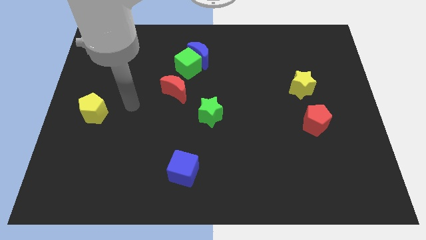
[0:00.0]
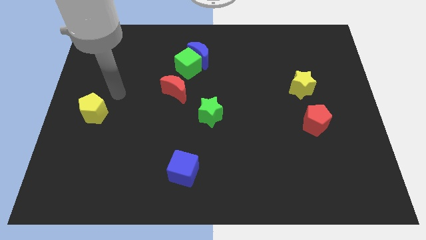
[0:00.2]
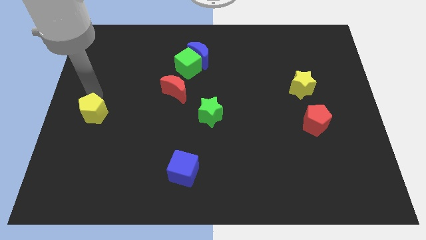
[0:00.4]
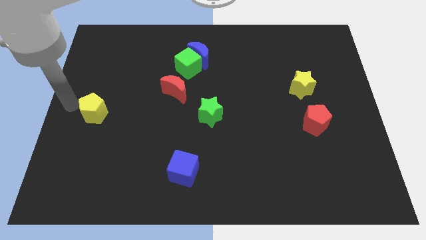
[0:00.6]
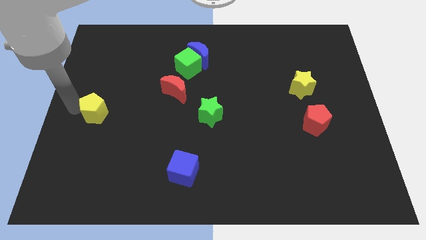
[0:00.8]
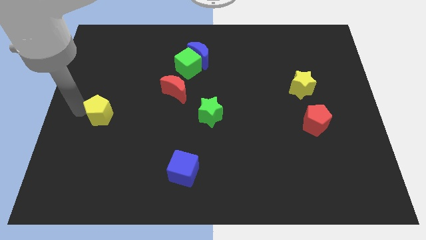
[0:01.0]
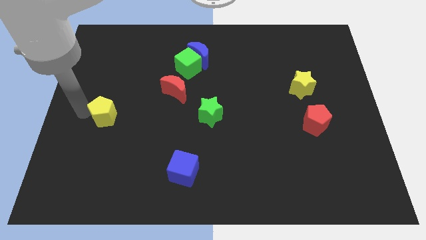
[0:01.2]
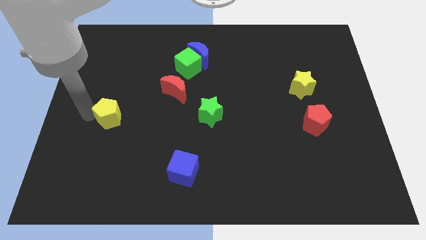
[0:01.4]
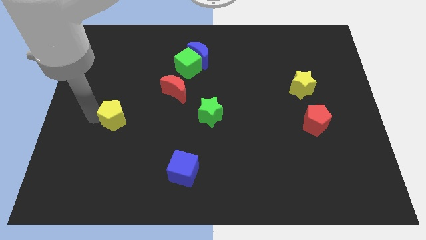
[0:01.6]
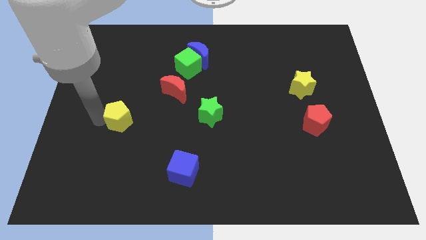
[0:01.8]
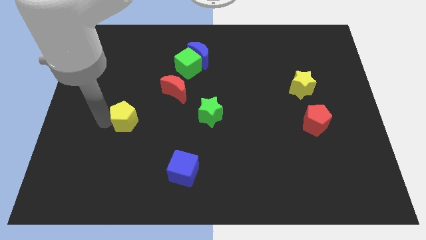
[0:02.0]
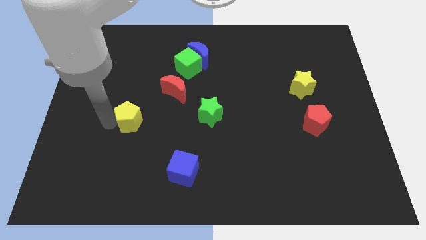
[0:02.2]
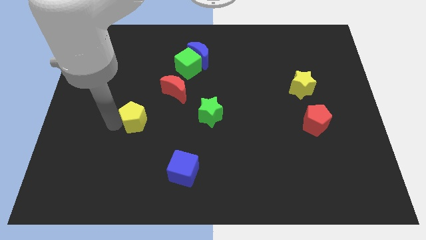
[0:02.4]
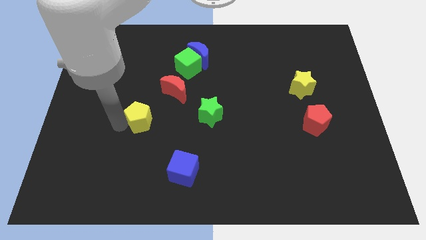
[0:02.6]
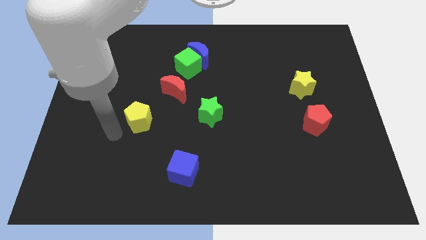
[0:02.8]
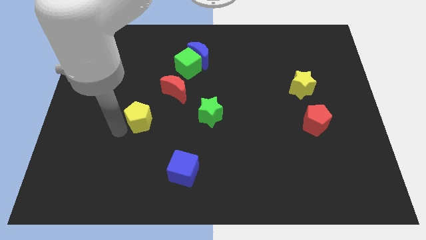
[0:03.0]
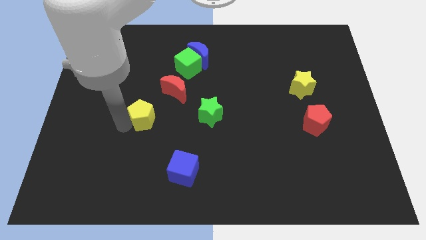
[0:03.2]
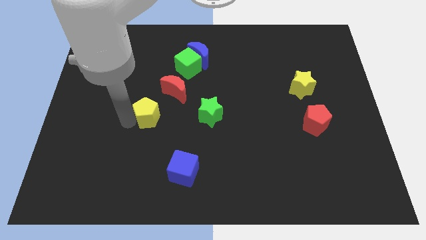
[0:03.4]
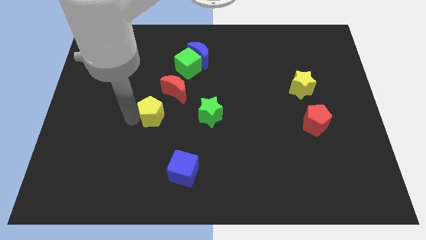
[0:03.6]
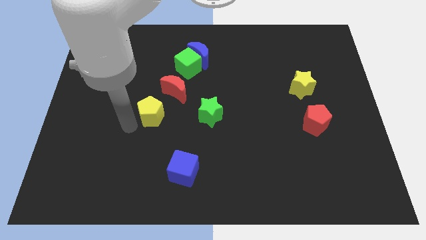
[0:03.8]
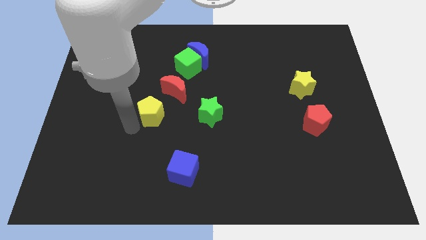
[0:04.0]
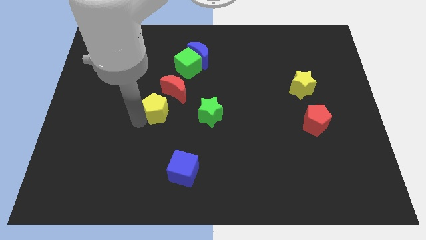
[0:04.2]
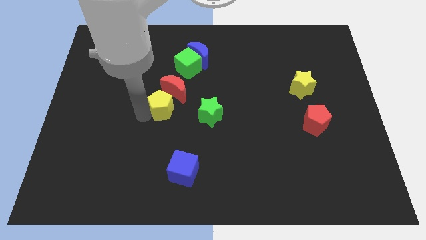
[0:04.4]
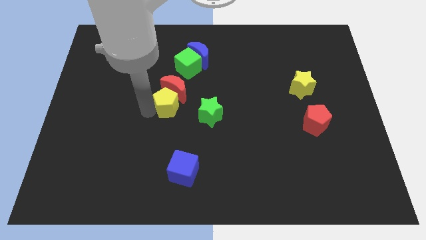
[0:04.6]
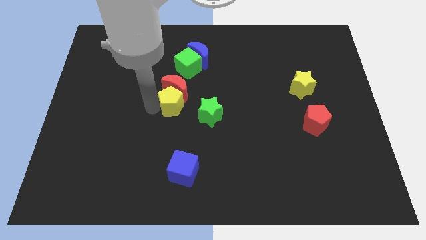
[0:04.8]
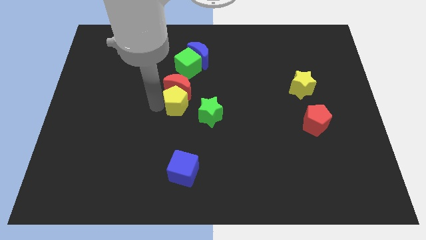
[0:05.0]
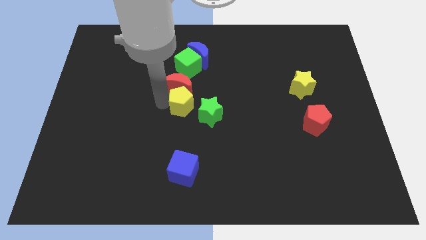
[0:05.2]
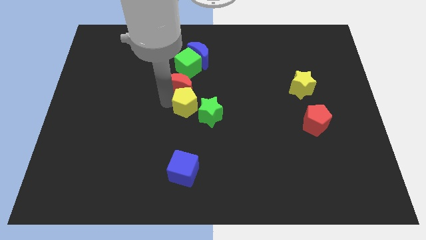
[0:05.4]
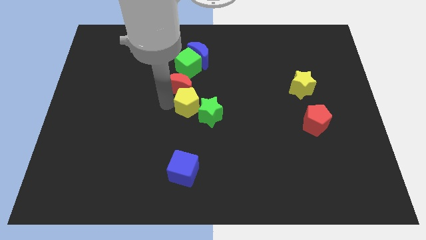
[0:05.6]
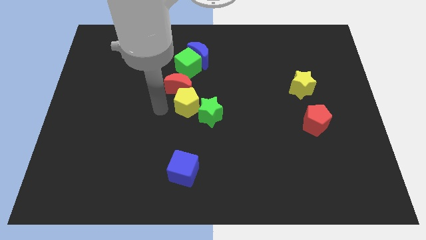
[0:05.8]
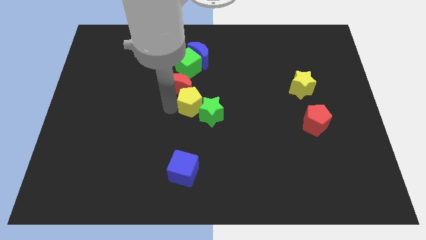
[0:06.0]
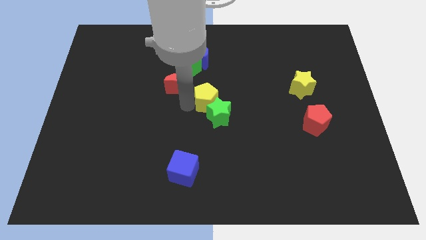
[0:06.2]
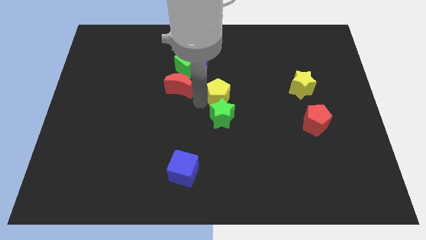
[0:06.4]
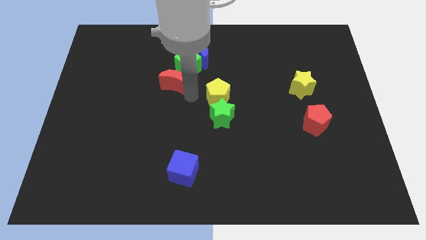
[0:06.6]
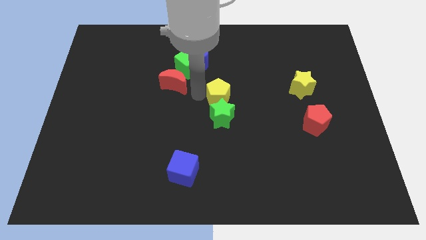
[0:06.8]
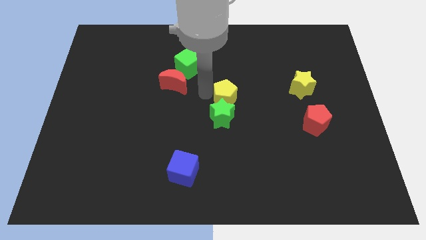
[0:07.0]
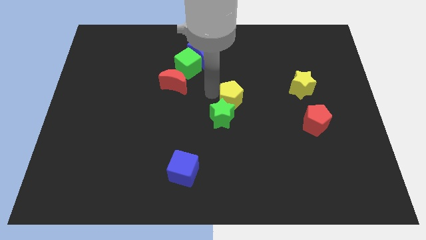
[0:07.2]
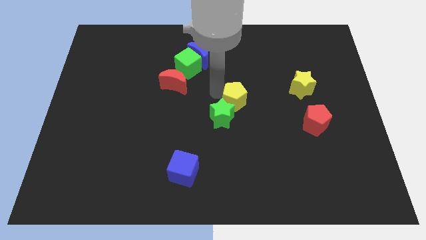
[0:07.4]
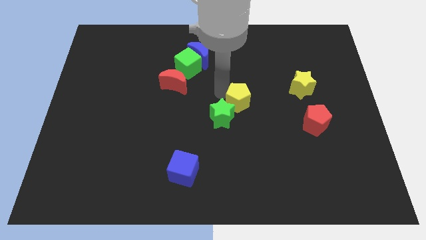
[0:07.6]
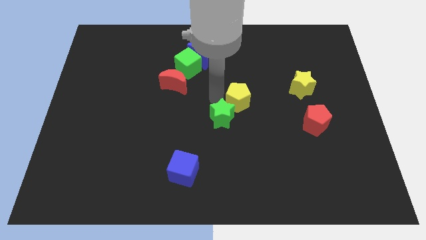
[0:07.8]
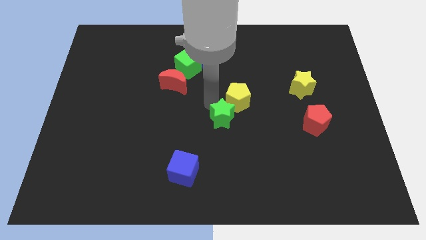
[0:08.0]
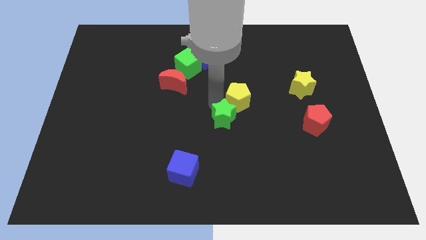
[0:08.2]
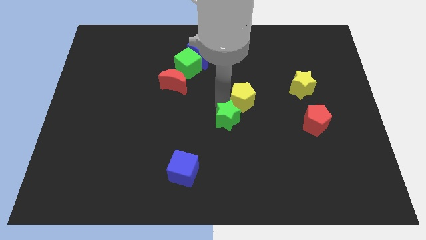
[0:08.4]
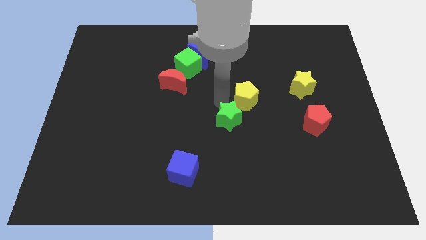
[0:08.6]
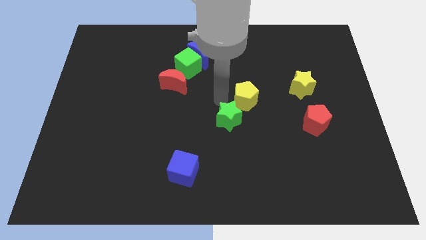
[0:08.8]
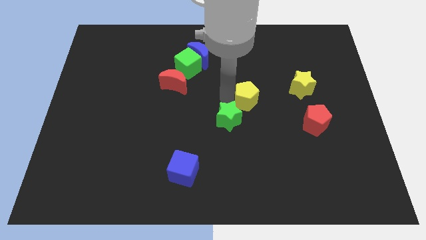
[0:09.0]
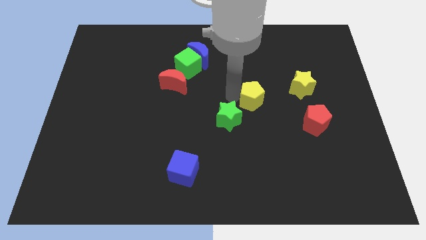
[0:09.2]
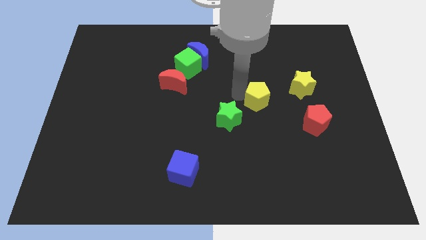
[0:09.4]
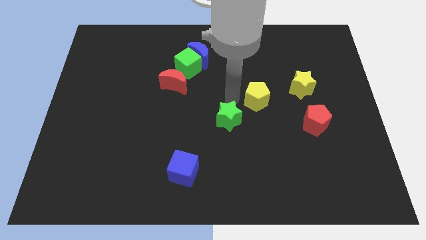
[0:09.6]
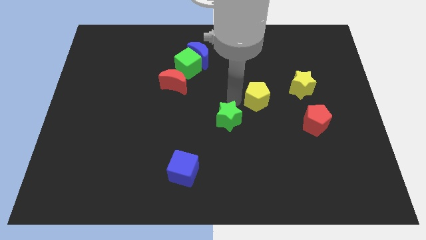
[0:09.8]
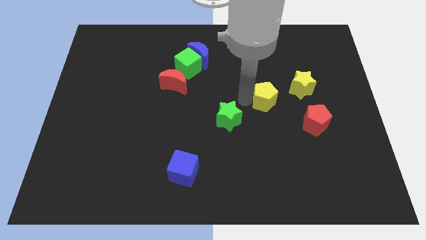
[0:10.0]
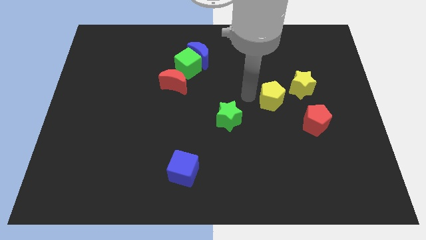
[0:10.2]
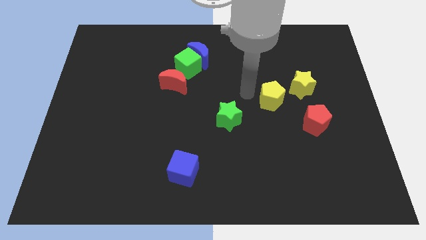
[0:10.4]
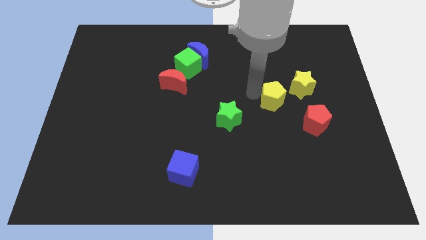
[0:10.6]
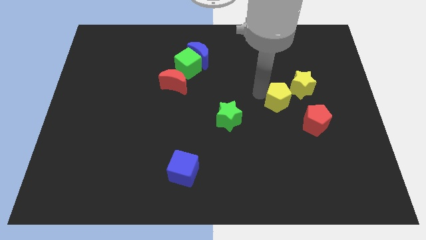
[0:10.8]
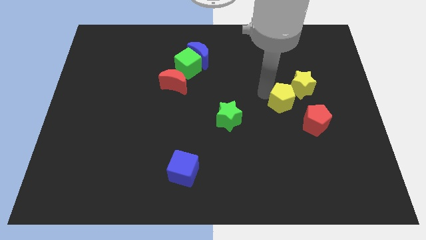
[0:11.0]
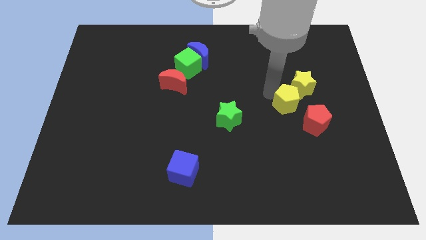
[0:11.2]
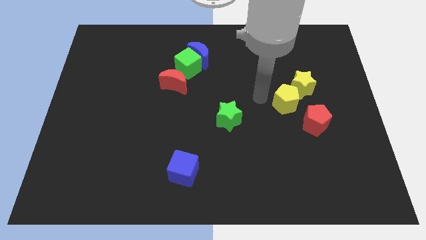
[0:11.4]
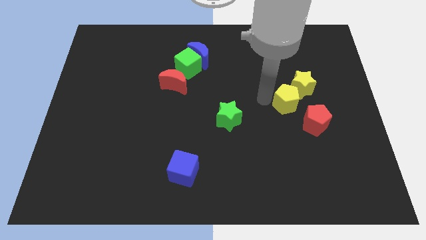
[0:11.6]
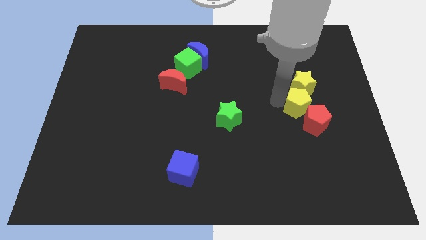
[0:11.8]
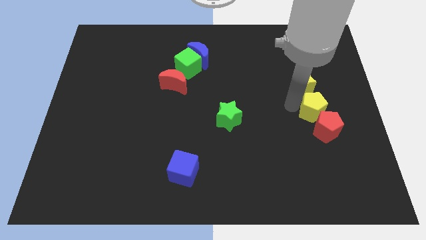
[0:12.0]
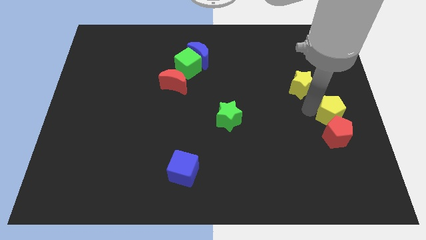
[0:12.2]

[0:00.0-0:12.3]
push the yellow pentagon to the top right side of the red pentagon

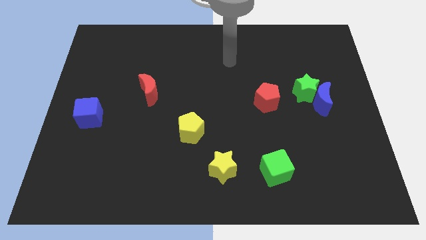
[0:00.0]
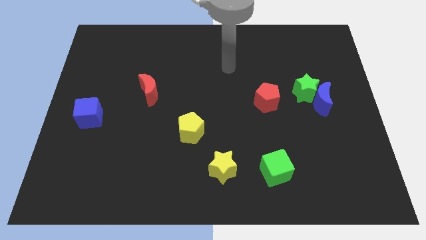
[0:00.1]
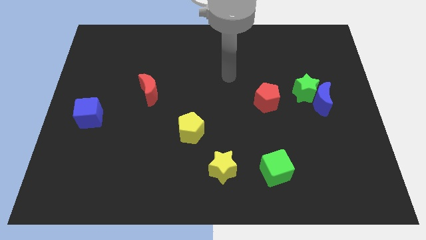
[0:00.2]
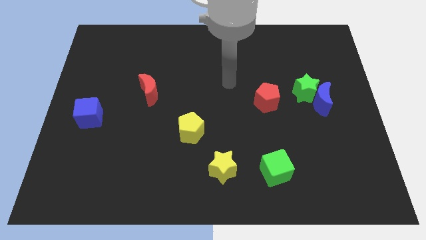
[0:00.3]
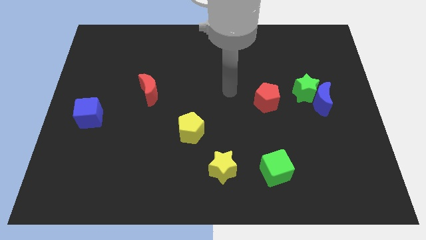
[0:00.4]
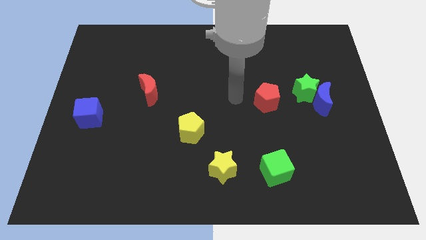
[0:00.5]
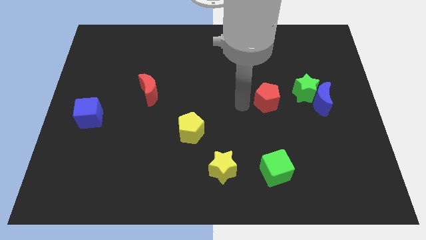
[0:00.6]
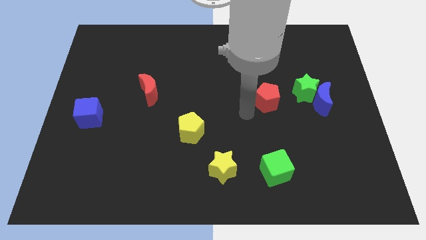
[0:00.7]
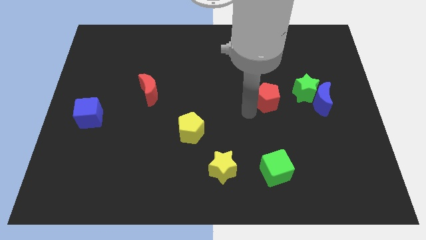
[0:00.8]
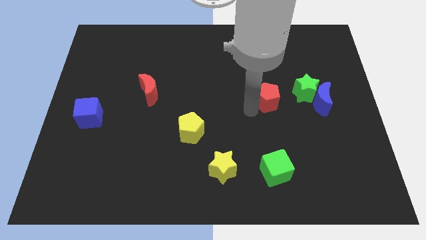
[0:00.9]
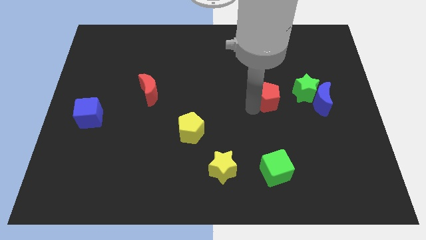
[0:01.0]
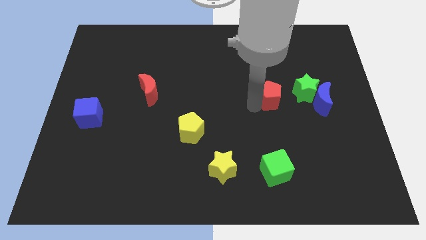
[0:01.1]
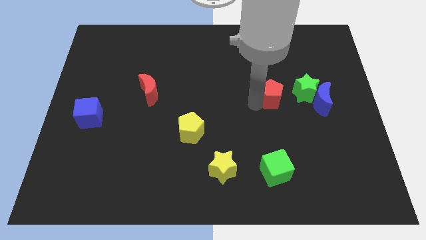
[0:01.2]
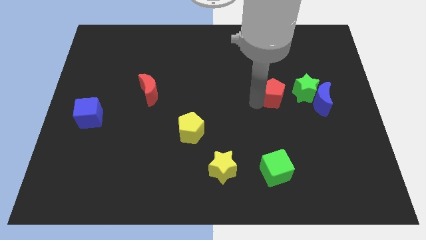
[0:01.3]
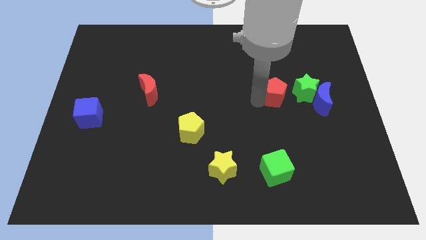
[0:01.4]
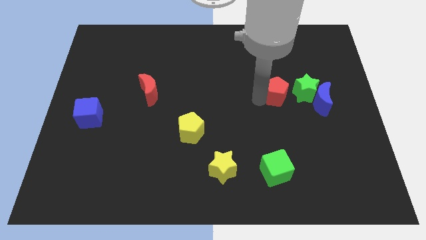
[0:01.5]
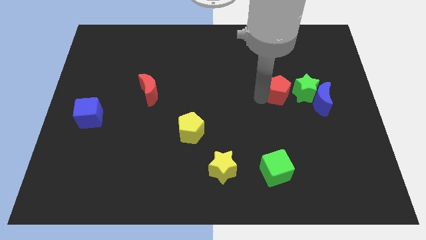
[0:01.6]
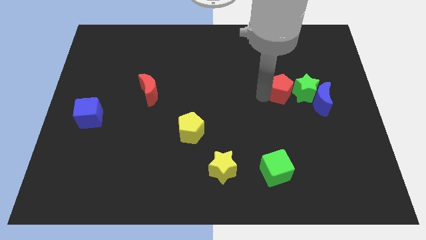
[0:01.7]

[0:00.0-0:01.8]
push the red pentagon diagonally up and to the left of the blue moon
